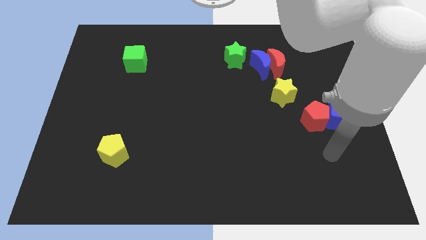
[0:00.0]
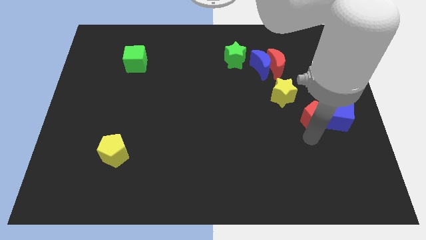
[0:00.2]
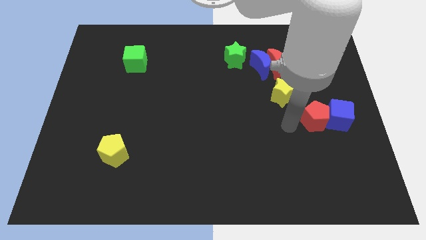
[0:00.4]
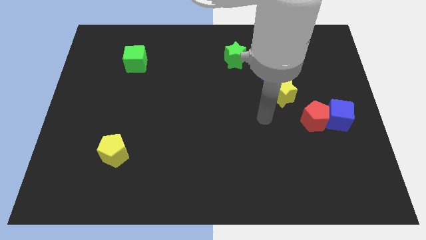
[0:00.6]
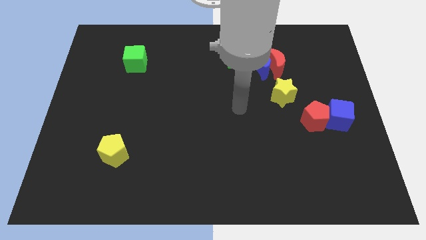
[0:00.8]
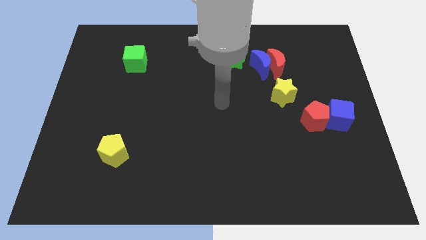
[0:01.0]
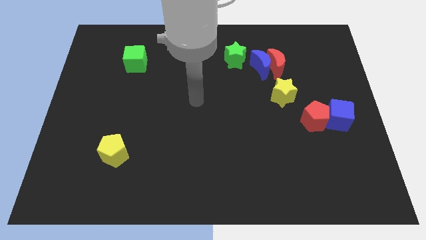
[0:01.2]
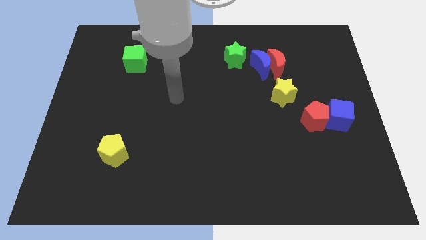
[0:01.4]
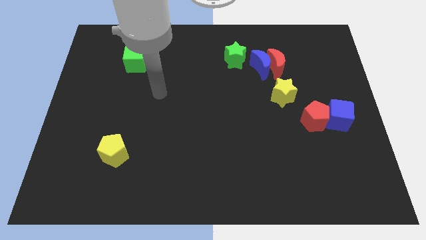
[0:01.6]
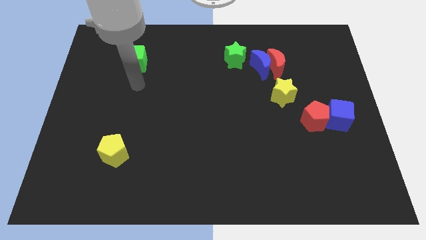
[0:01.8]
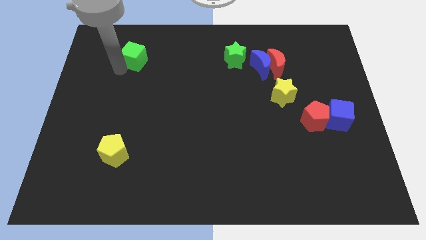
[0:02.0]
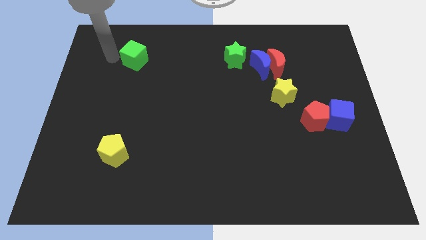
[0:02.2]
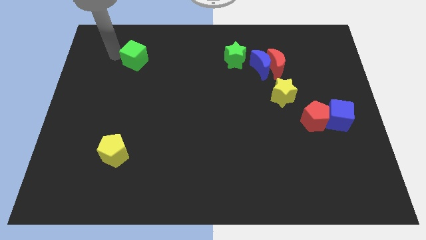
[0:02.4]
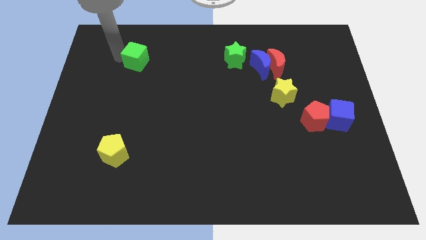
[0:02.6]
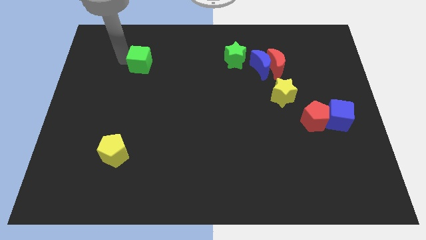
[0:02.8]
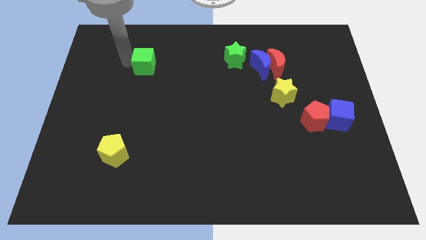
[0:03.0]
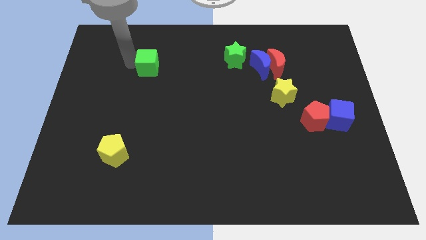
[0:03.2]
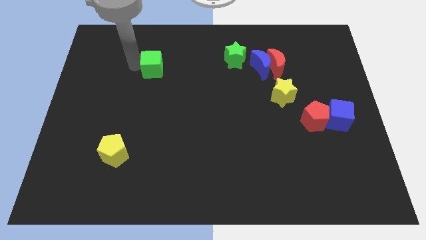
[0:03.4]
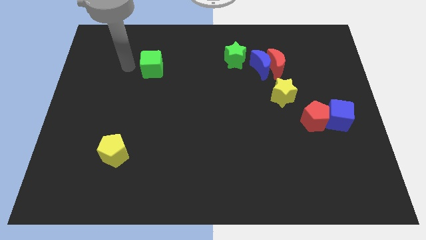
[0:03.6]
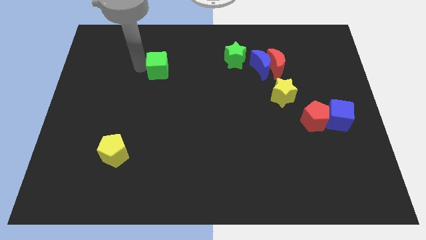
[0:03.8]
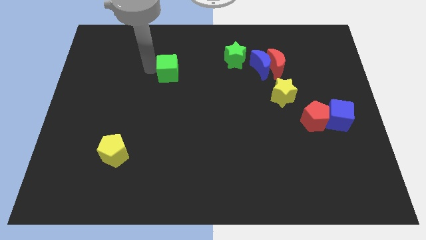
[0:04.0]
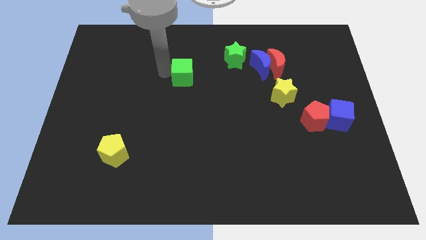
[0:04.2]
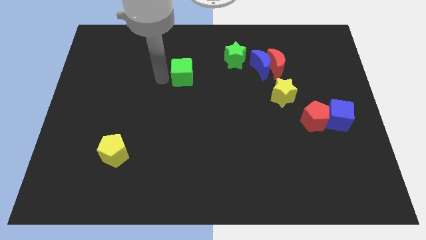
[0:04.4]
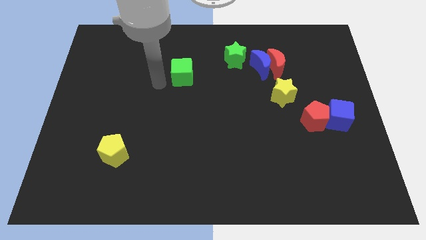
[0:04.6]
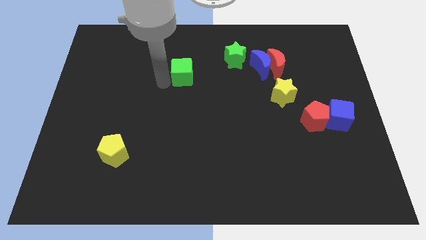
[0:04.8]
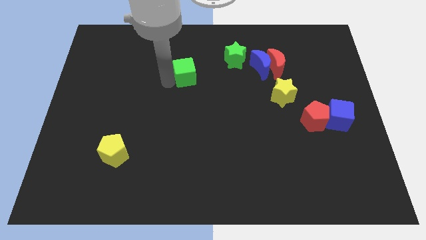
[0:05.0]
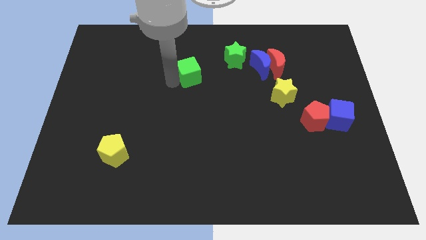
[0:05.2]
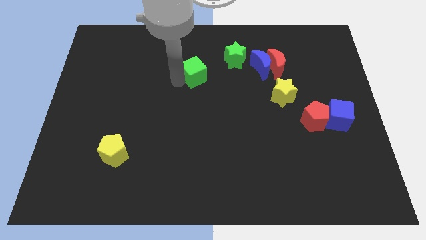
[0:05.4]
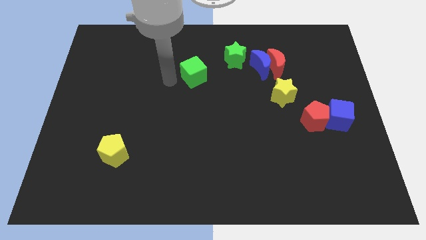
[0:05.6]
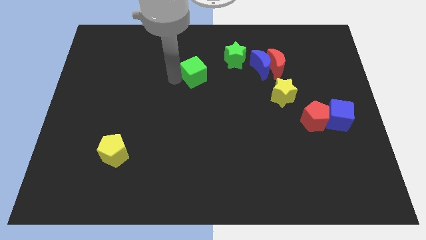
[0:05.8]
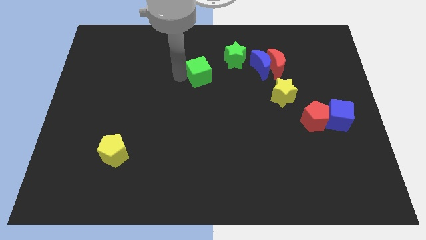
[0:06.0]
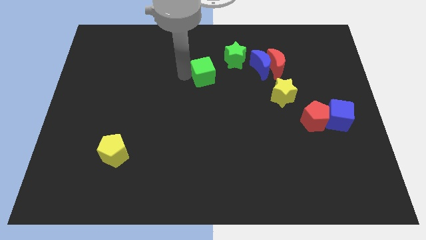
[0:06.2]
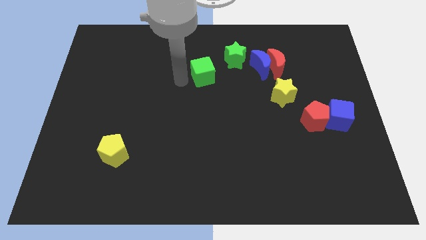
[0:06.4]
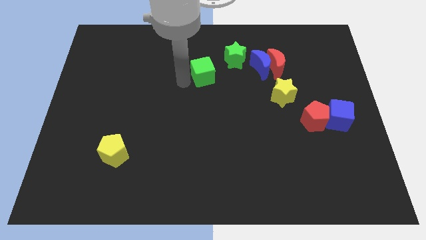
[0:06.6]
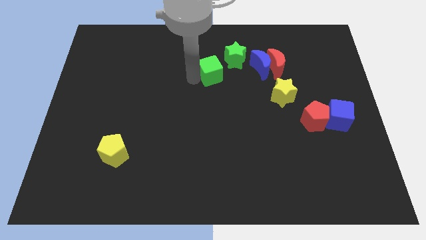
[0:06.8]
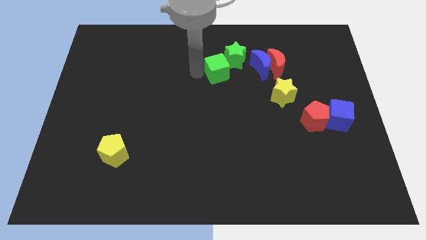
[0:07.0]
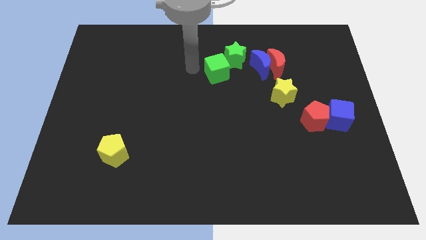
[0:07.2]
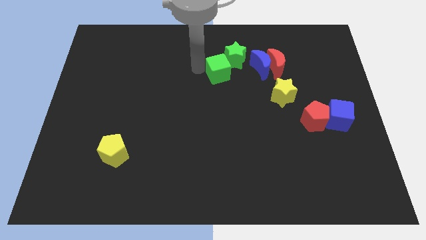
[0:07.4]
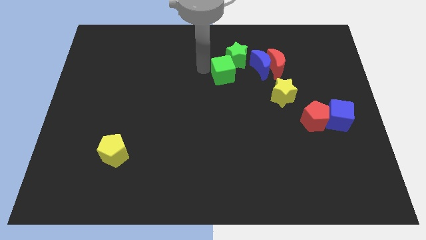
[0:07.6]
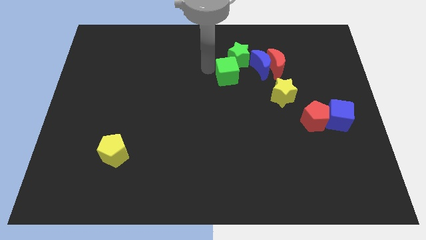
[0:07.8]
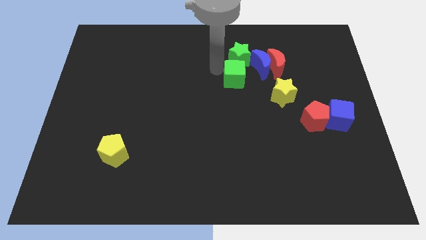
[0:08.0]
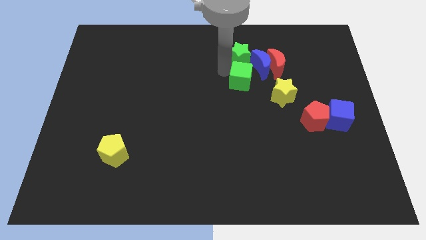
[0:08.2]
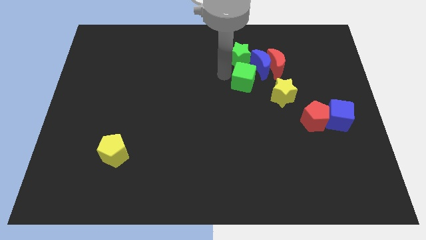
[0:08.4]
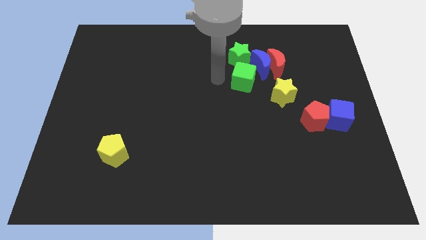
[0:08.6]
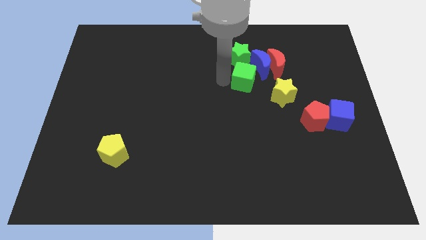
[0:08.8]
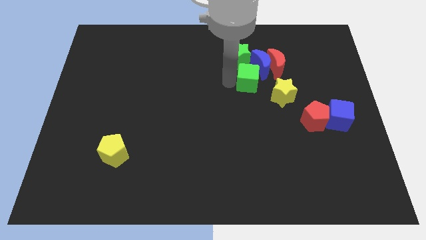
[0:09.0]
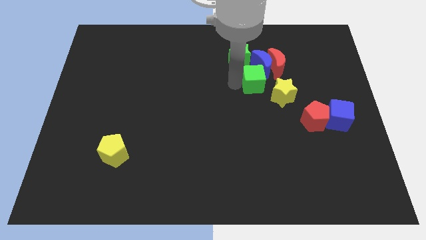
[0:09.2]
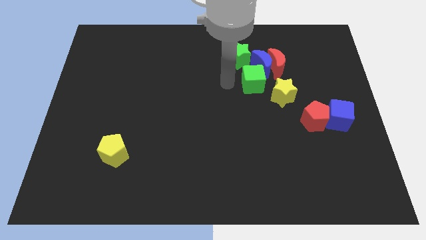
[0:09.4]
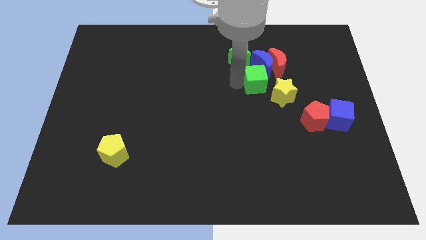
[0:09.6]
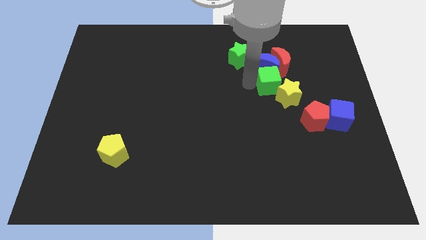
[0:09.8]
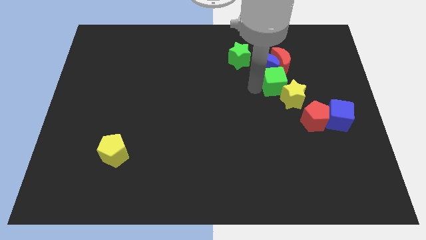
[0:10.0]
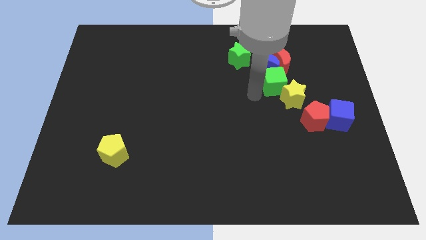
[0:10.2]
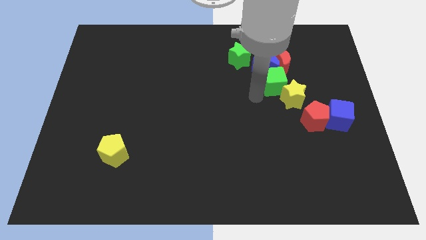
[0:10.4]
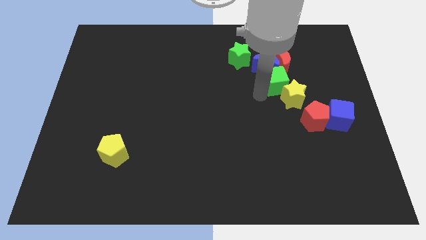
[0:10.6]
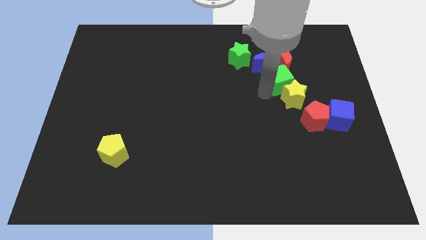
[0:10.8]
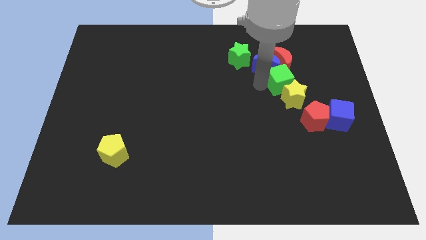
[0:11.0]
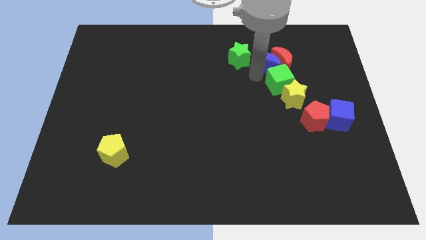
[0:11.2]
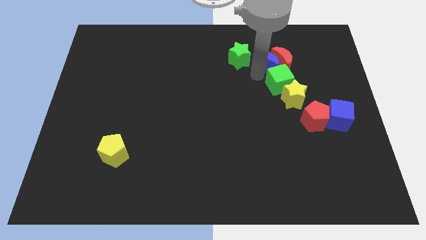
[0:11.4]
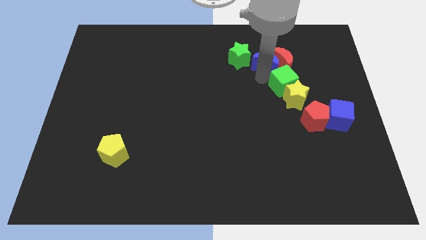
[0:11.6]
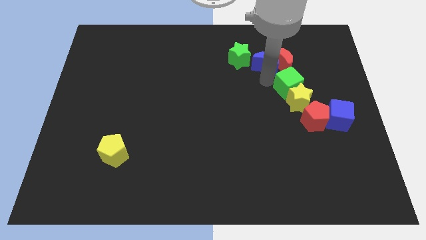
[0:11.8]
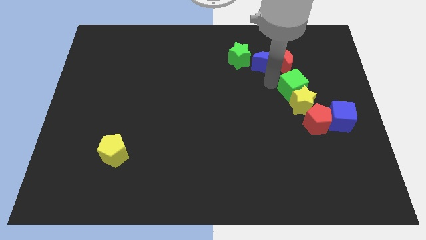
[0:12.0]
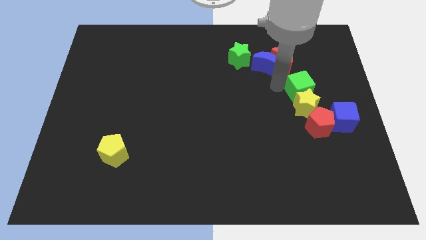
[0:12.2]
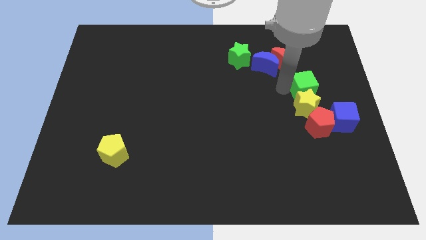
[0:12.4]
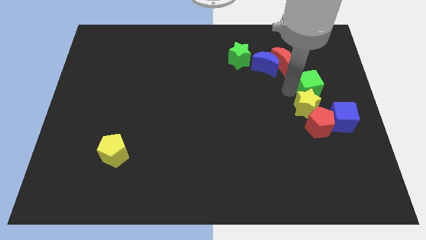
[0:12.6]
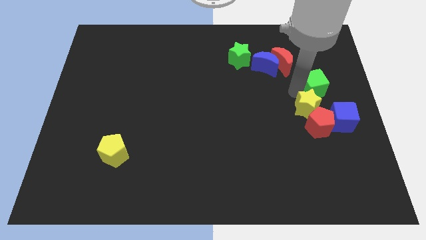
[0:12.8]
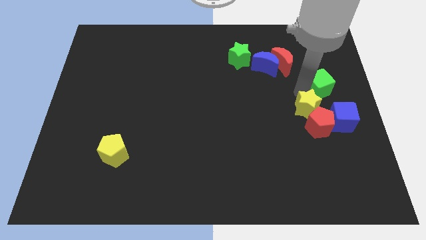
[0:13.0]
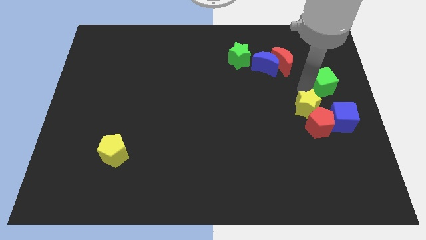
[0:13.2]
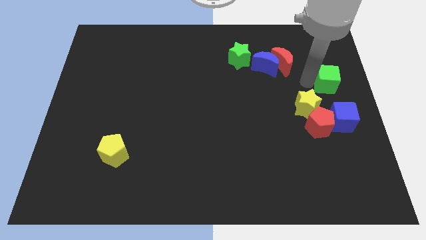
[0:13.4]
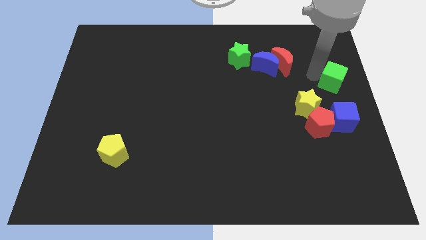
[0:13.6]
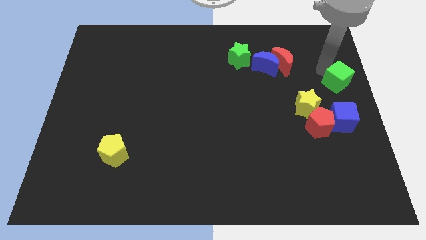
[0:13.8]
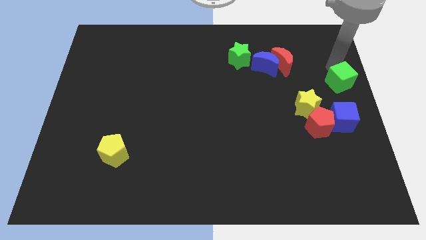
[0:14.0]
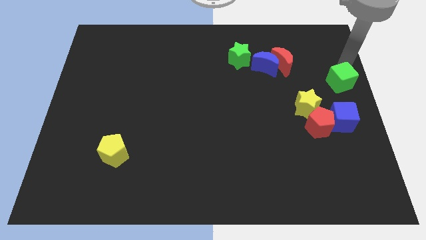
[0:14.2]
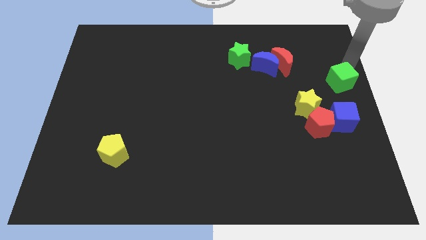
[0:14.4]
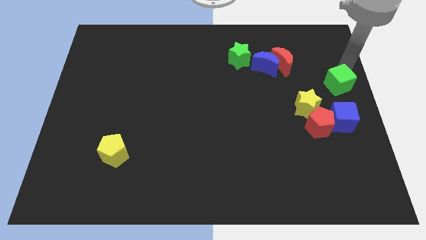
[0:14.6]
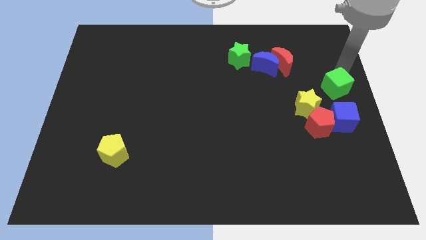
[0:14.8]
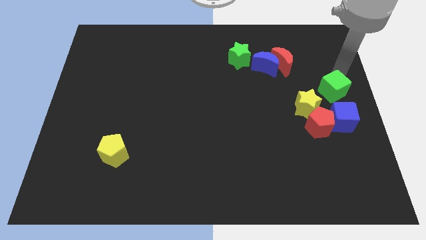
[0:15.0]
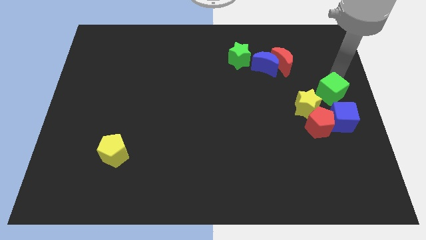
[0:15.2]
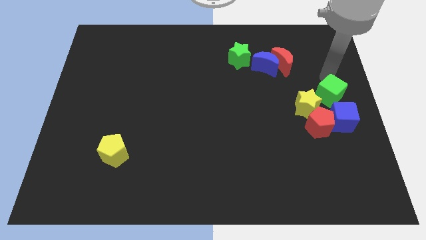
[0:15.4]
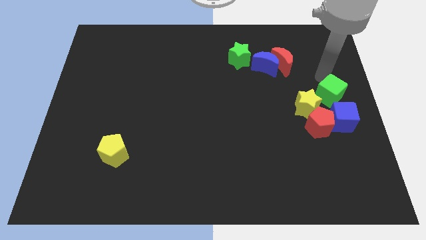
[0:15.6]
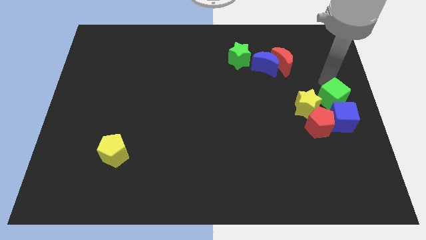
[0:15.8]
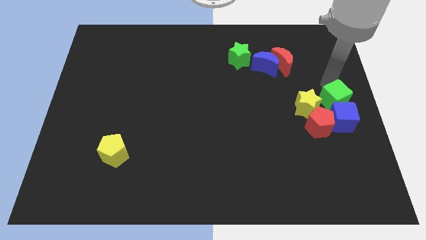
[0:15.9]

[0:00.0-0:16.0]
put the green cube to the blue cube
